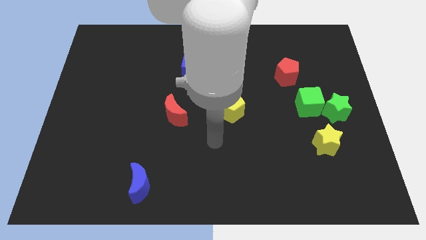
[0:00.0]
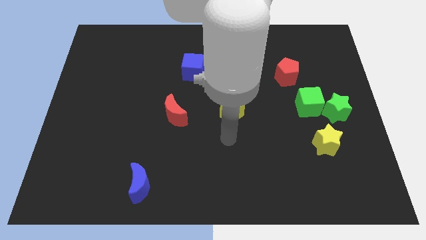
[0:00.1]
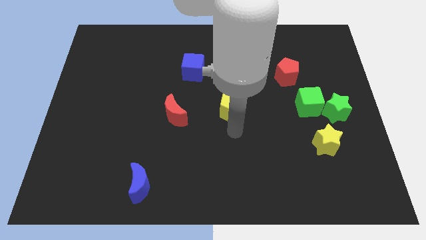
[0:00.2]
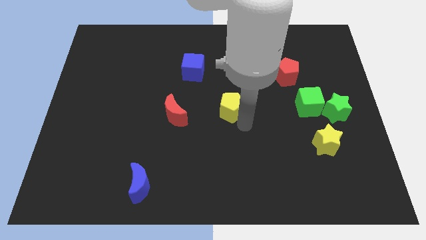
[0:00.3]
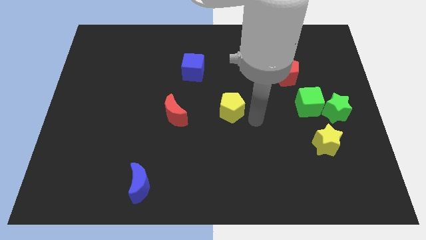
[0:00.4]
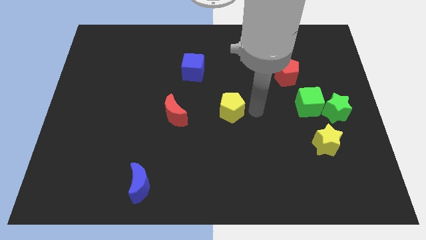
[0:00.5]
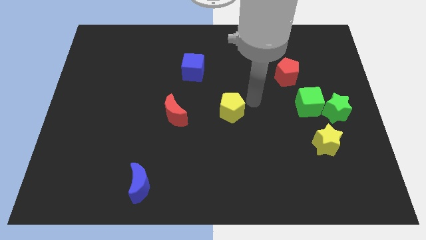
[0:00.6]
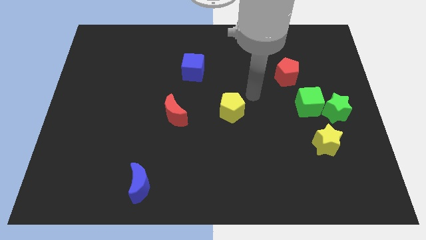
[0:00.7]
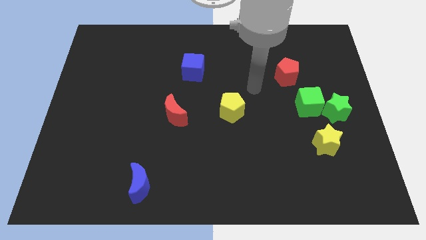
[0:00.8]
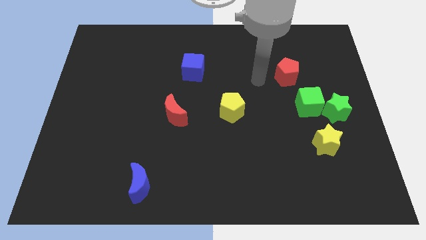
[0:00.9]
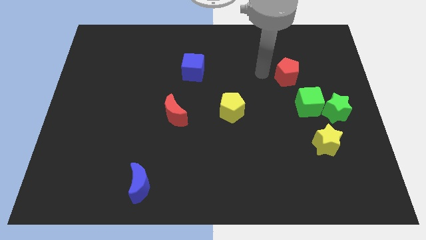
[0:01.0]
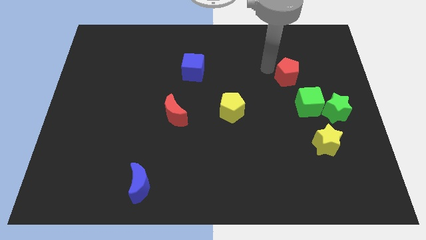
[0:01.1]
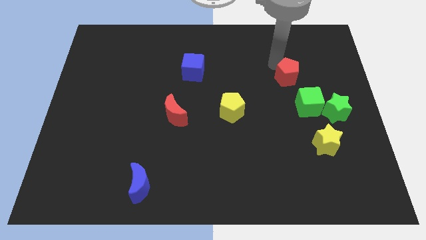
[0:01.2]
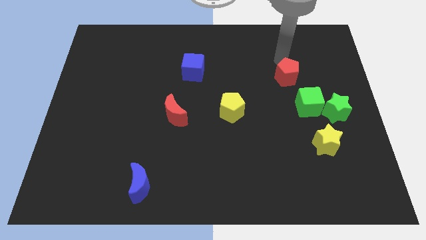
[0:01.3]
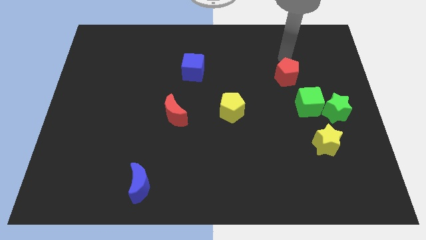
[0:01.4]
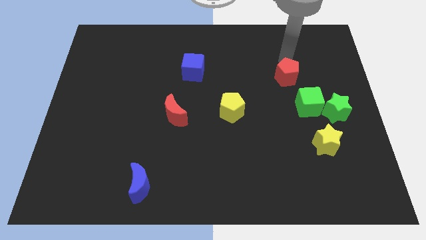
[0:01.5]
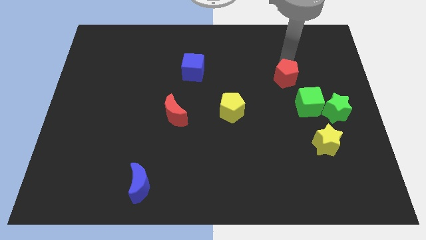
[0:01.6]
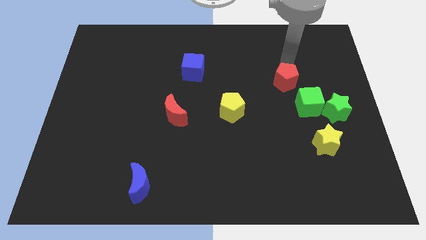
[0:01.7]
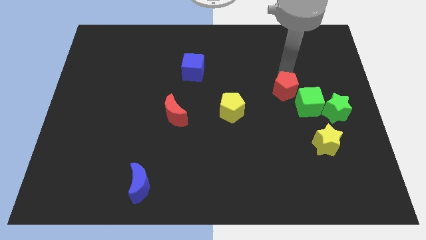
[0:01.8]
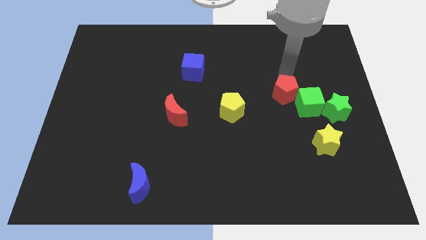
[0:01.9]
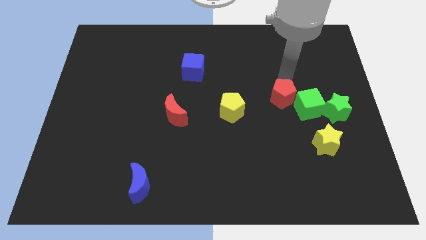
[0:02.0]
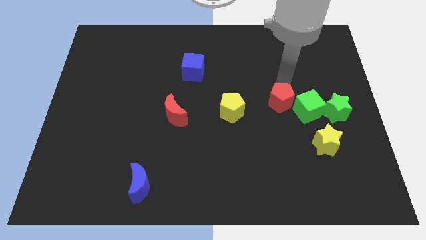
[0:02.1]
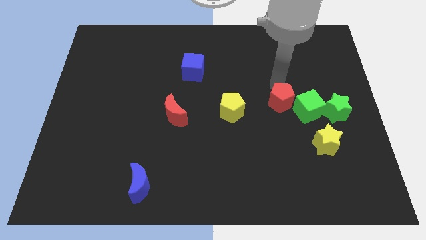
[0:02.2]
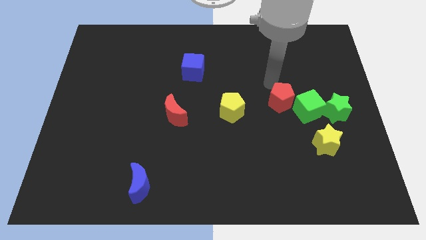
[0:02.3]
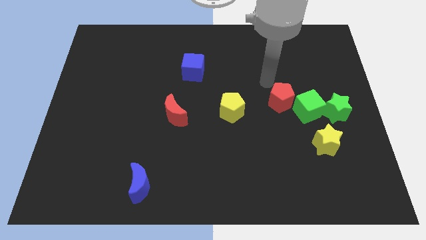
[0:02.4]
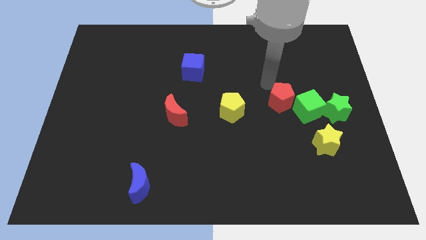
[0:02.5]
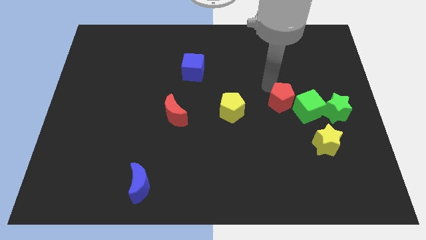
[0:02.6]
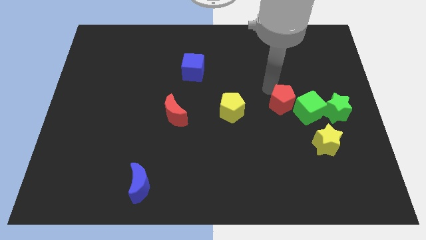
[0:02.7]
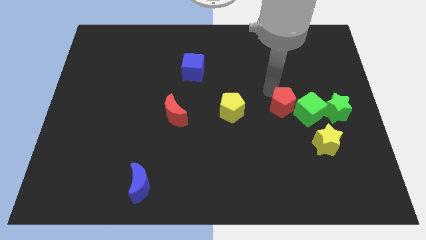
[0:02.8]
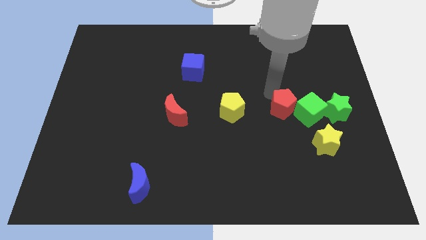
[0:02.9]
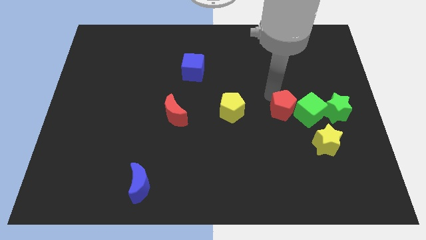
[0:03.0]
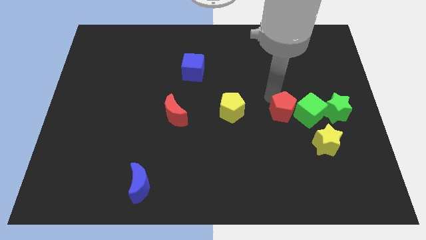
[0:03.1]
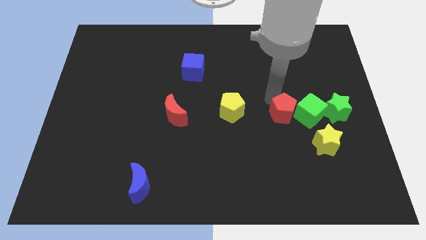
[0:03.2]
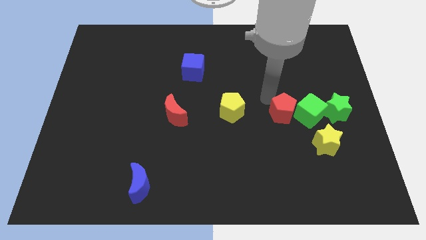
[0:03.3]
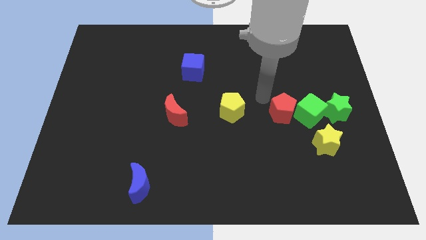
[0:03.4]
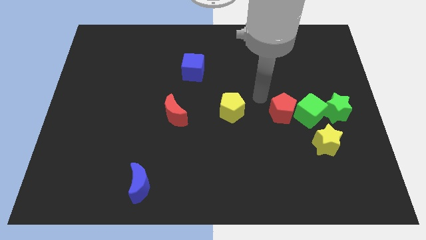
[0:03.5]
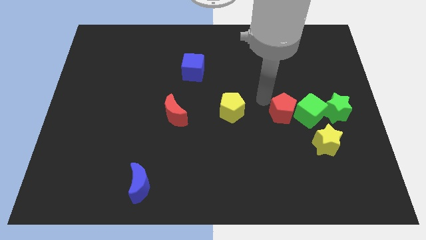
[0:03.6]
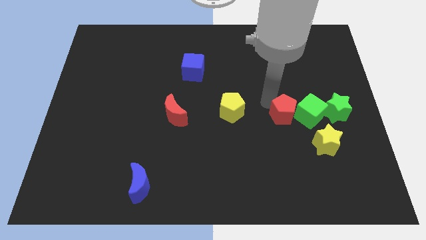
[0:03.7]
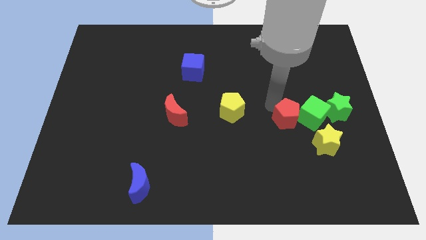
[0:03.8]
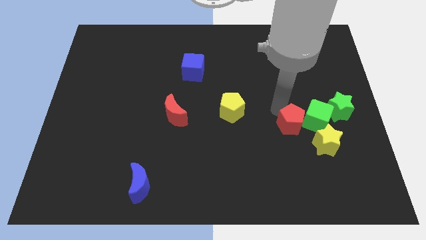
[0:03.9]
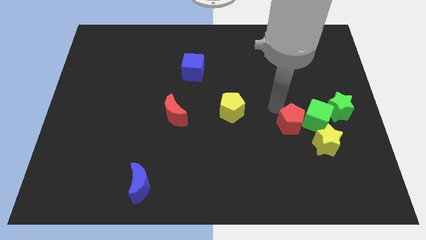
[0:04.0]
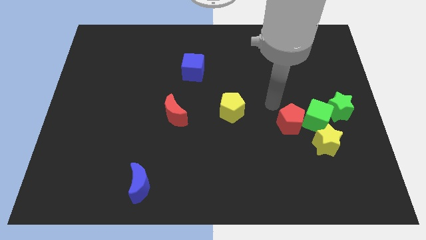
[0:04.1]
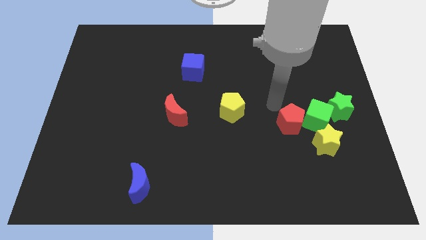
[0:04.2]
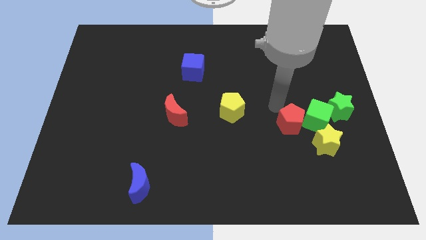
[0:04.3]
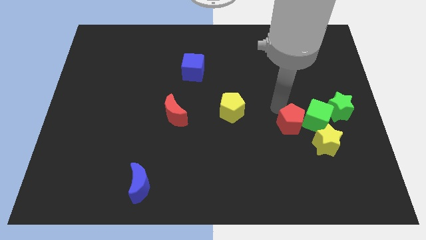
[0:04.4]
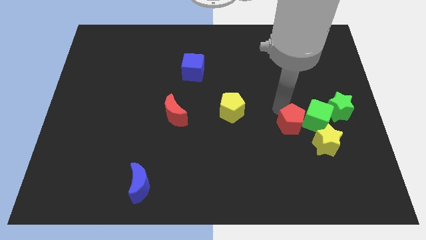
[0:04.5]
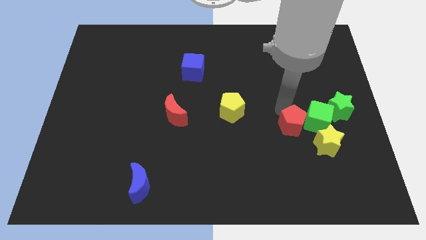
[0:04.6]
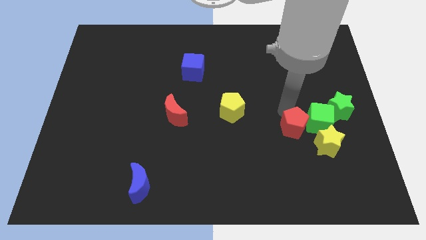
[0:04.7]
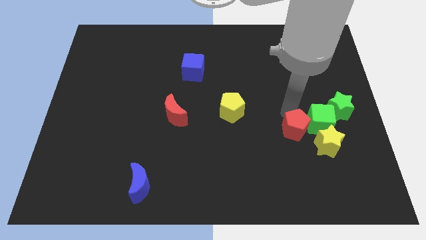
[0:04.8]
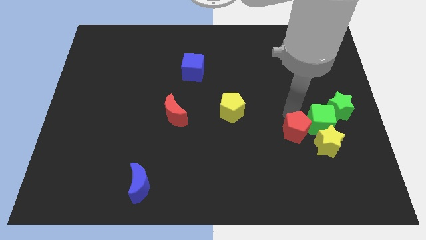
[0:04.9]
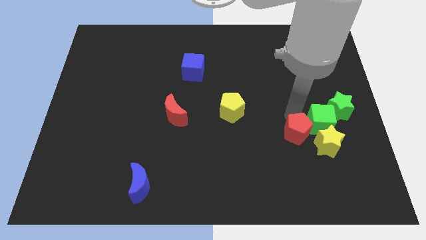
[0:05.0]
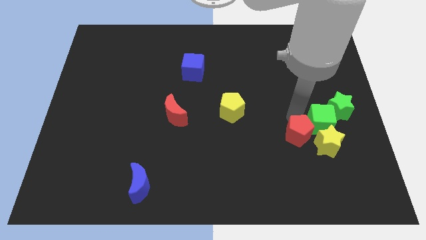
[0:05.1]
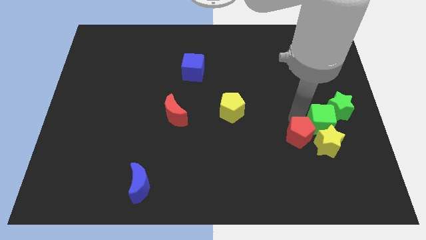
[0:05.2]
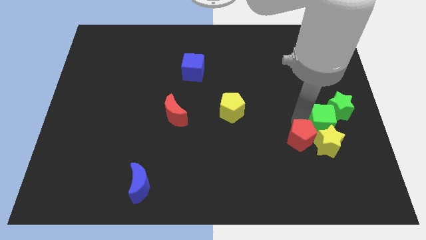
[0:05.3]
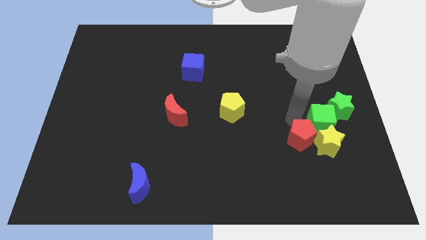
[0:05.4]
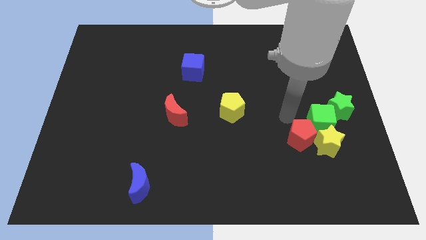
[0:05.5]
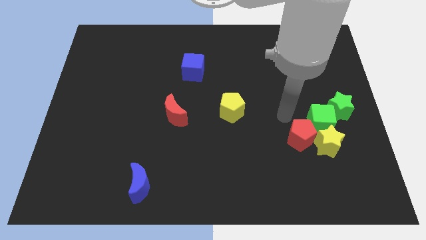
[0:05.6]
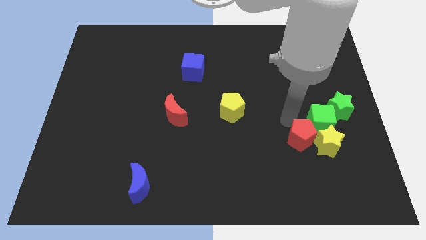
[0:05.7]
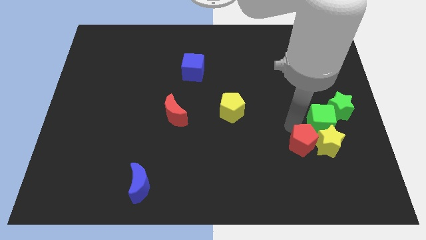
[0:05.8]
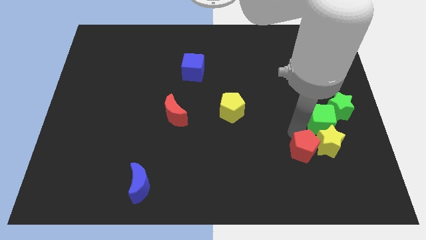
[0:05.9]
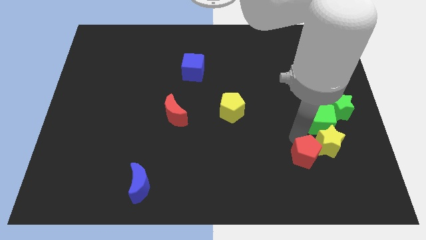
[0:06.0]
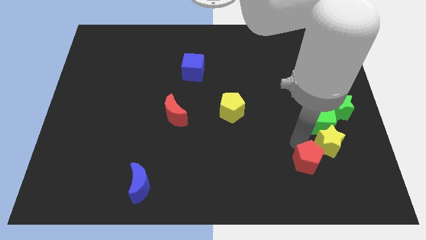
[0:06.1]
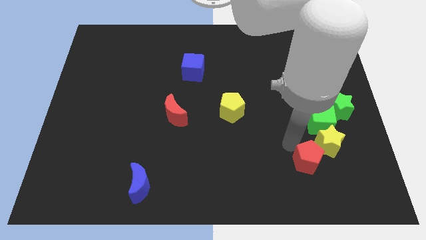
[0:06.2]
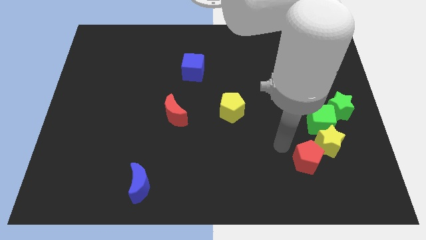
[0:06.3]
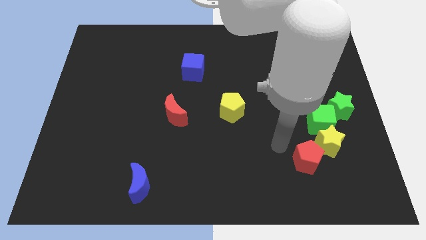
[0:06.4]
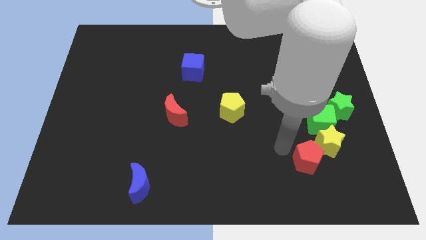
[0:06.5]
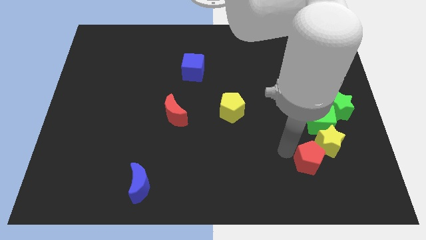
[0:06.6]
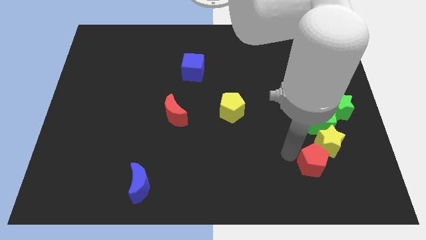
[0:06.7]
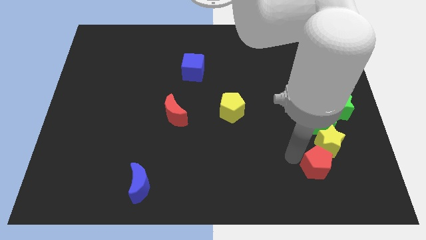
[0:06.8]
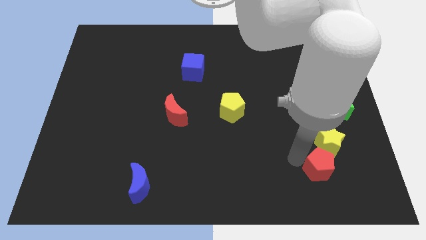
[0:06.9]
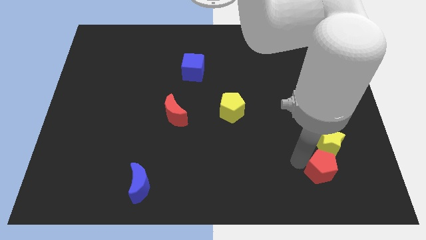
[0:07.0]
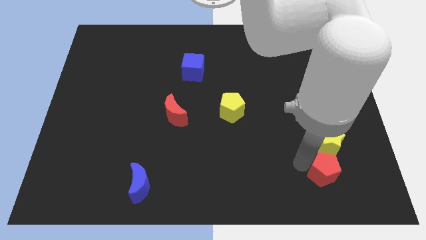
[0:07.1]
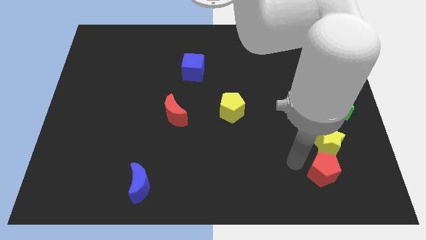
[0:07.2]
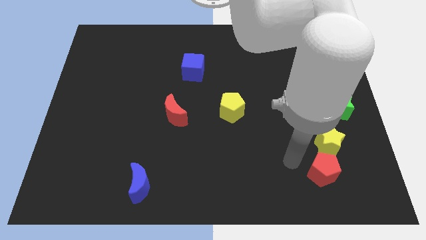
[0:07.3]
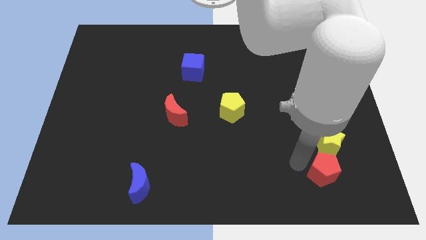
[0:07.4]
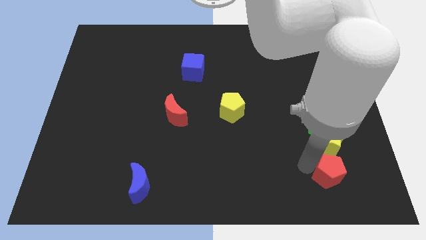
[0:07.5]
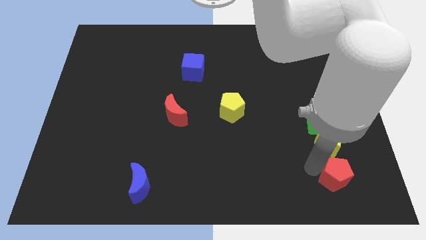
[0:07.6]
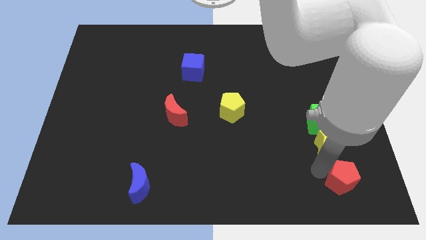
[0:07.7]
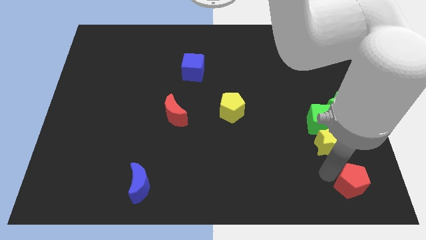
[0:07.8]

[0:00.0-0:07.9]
put the red pentagon to the bottom right corner
